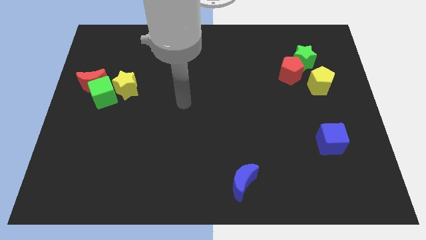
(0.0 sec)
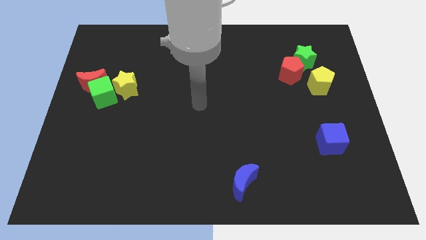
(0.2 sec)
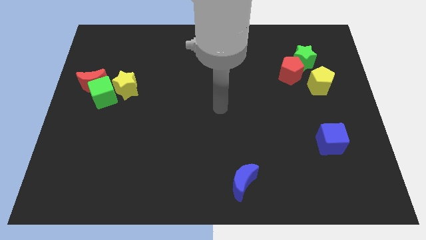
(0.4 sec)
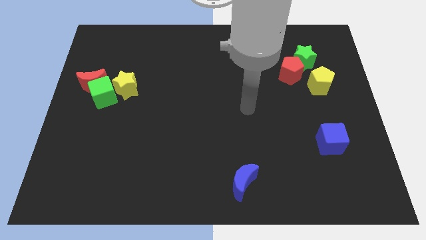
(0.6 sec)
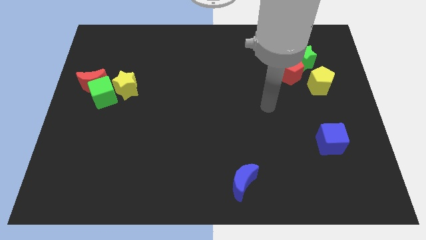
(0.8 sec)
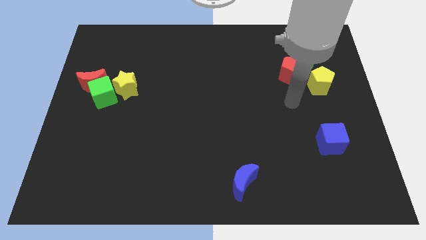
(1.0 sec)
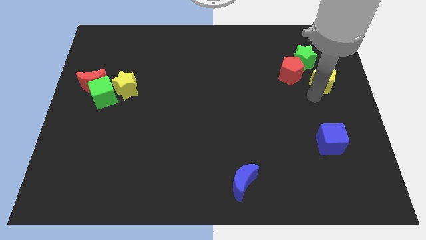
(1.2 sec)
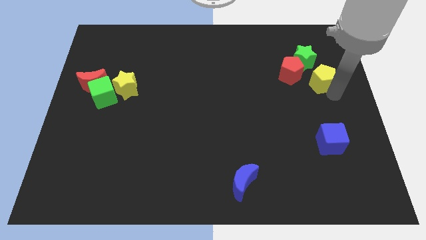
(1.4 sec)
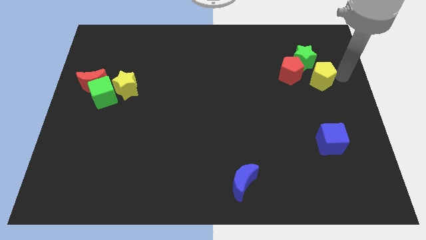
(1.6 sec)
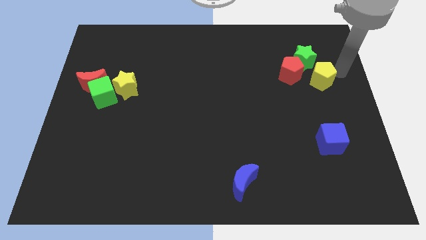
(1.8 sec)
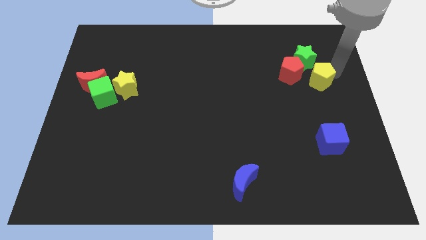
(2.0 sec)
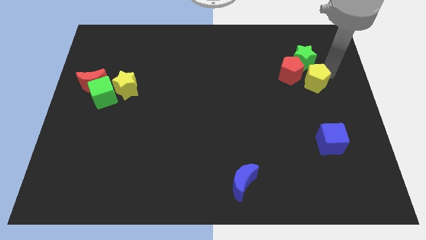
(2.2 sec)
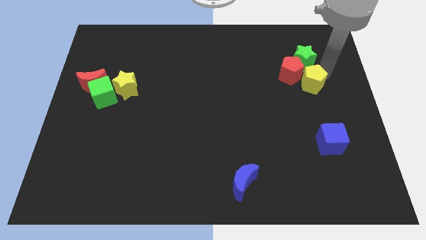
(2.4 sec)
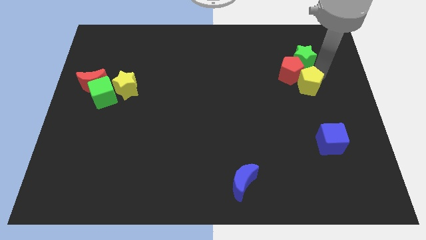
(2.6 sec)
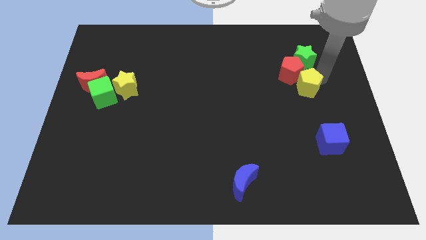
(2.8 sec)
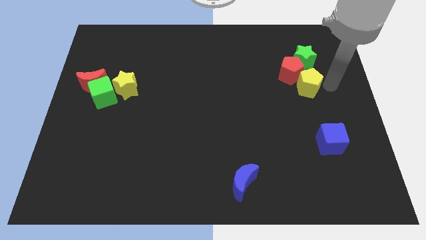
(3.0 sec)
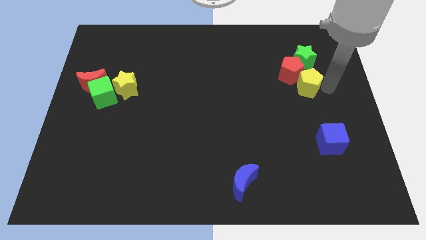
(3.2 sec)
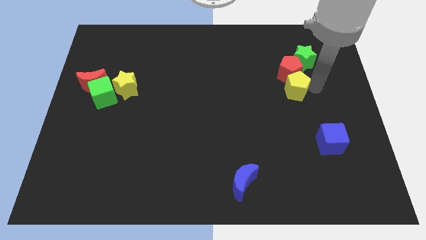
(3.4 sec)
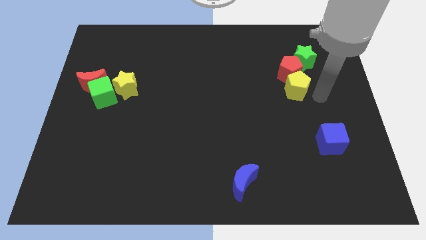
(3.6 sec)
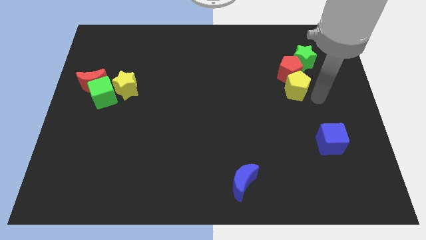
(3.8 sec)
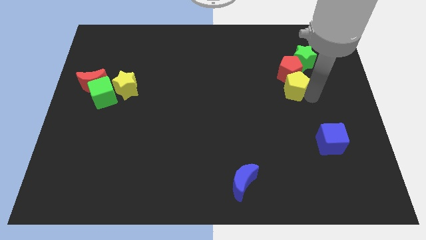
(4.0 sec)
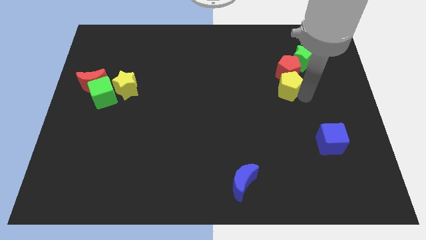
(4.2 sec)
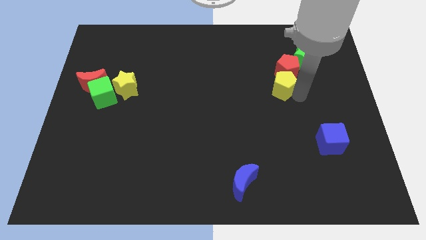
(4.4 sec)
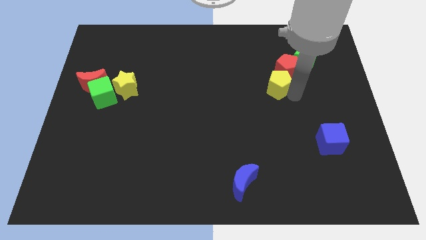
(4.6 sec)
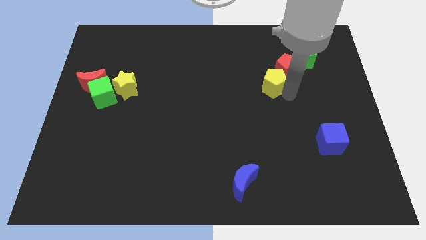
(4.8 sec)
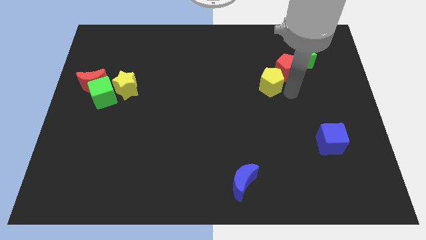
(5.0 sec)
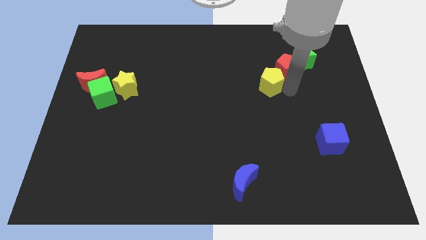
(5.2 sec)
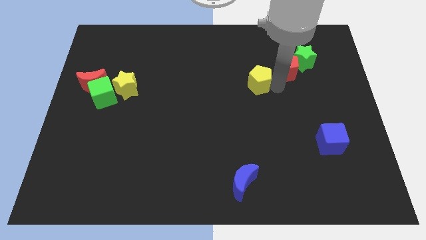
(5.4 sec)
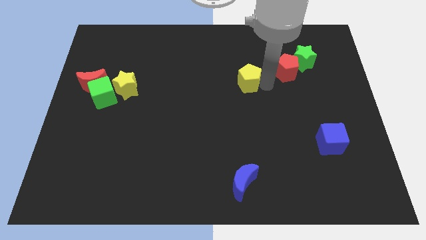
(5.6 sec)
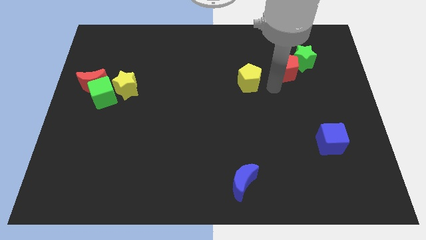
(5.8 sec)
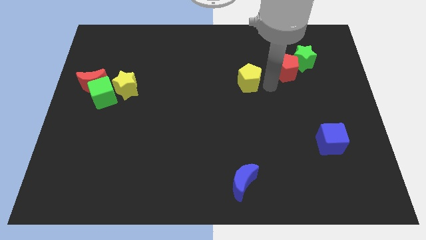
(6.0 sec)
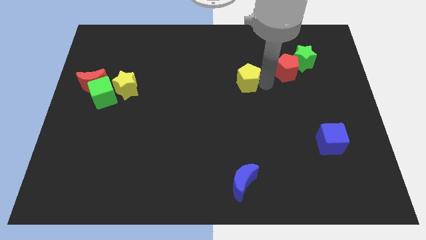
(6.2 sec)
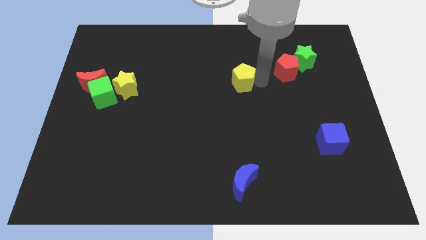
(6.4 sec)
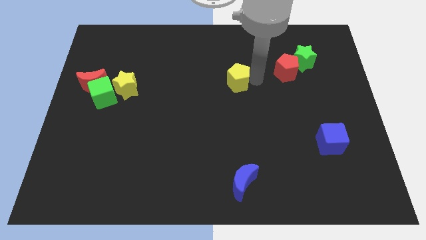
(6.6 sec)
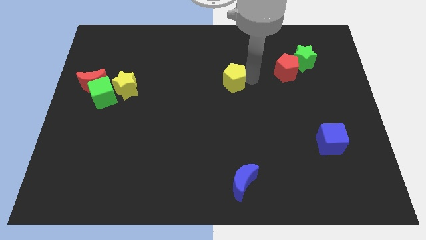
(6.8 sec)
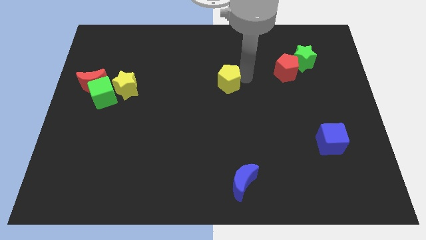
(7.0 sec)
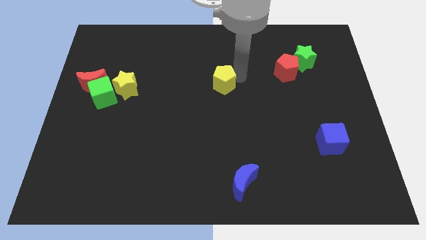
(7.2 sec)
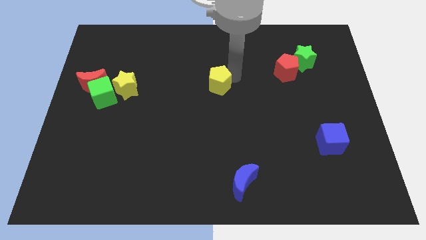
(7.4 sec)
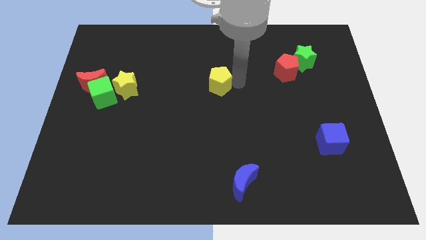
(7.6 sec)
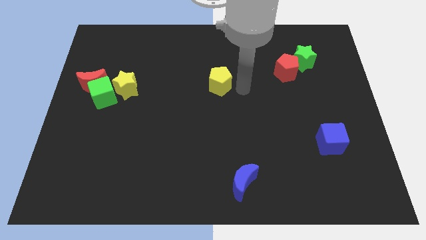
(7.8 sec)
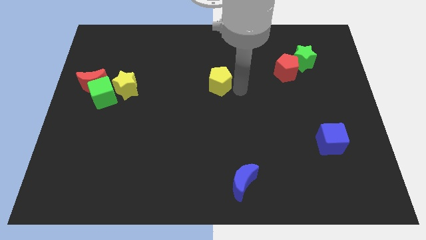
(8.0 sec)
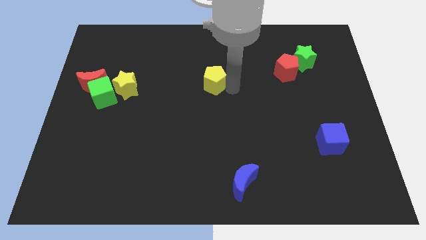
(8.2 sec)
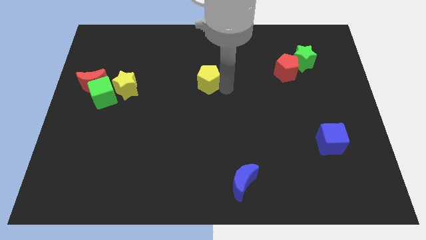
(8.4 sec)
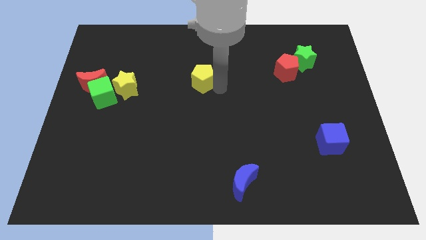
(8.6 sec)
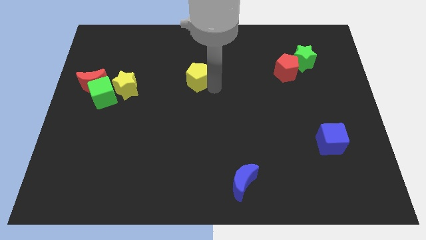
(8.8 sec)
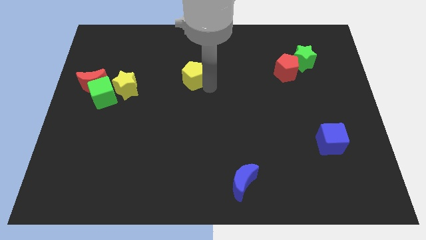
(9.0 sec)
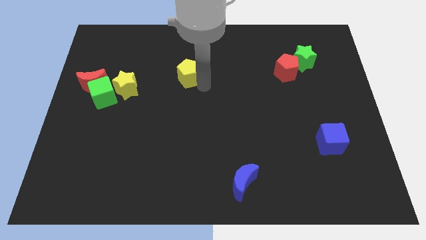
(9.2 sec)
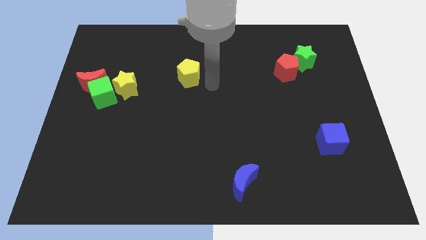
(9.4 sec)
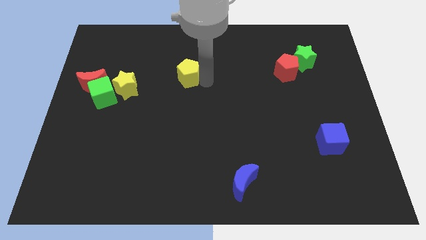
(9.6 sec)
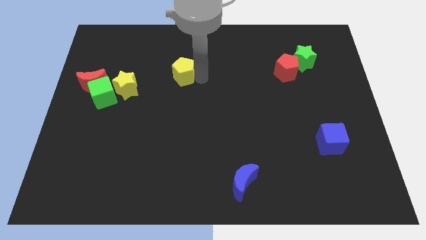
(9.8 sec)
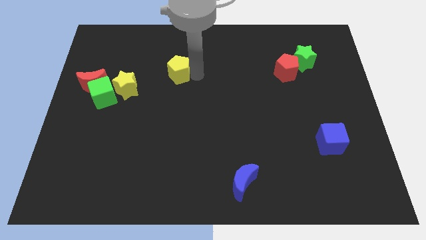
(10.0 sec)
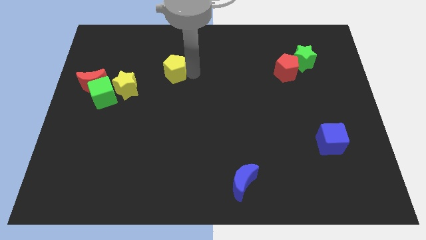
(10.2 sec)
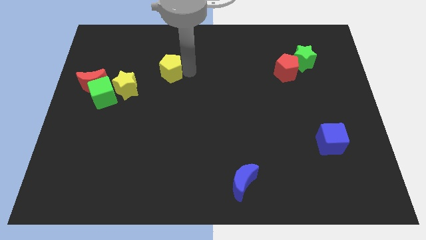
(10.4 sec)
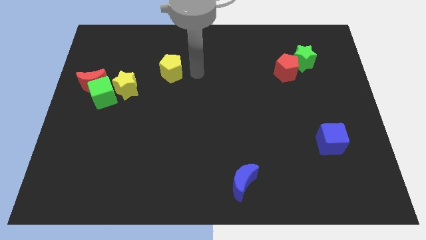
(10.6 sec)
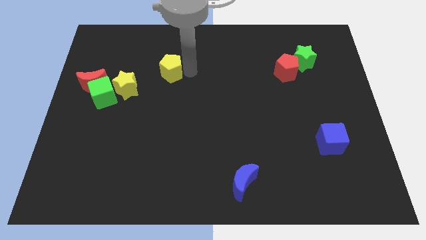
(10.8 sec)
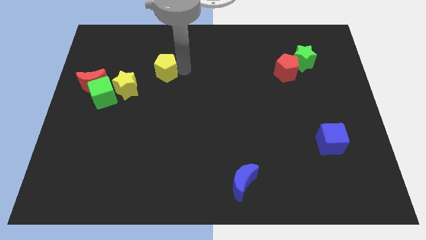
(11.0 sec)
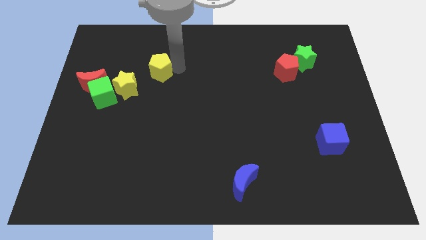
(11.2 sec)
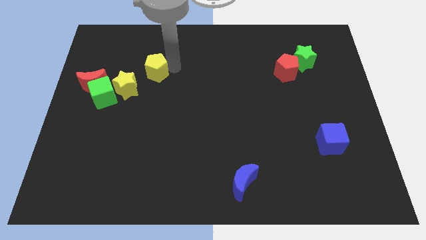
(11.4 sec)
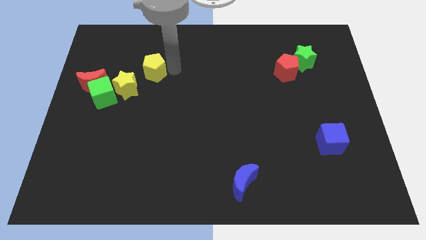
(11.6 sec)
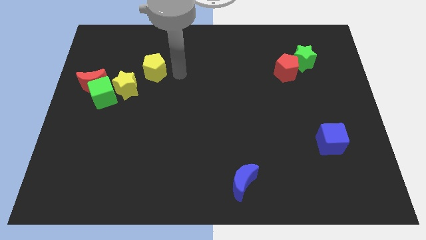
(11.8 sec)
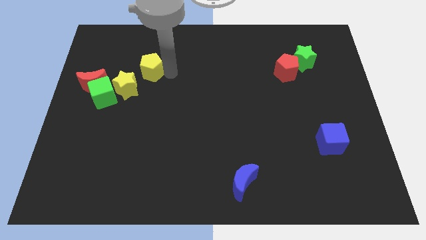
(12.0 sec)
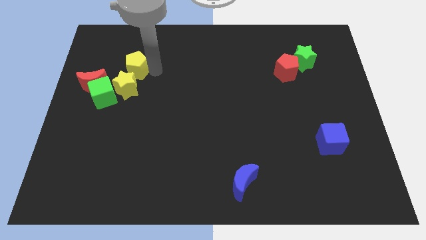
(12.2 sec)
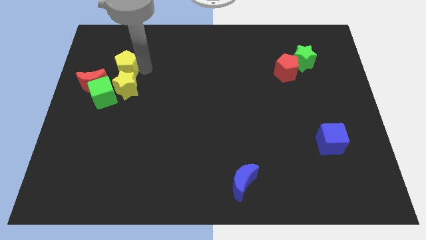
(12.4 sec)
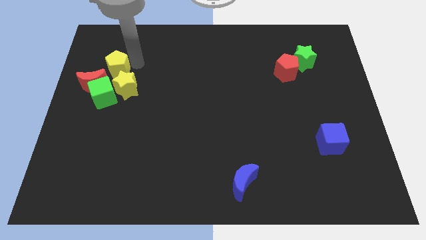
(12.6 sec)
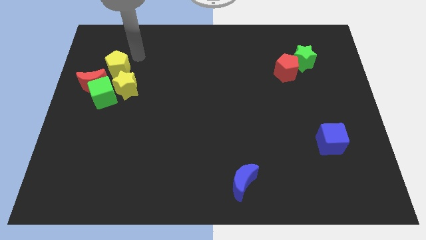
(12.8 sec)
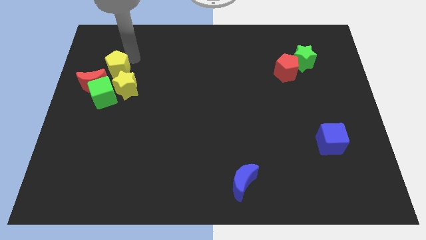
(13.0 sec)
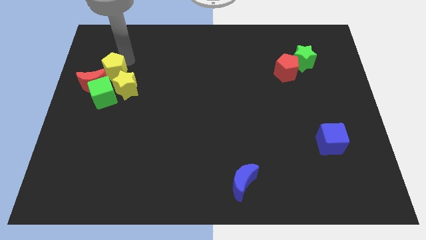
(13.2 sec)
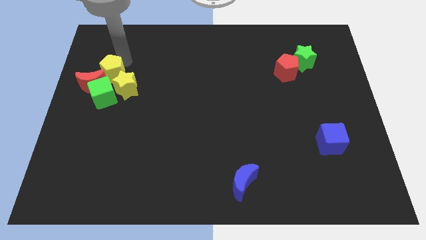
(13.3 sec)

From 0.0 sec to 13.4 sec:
move the yellow pentagon to the red moon
